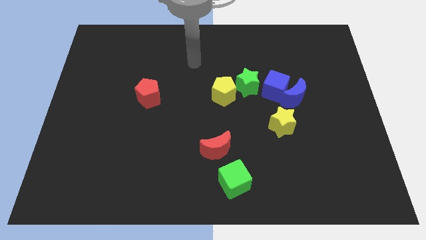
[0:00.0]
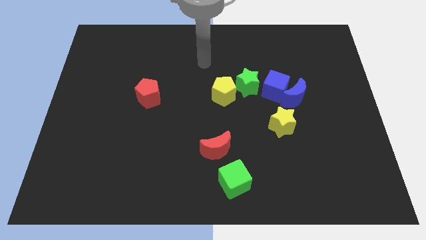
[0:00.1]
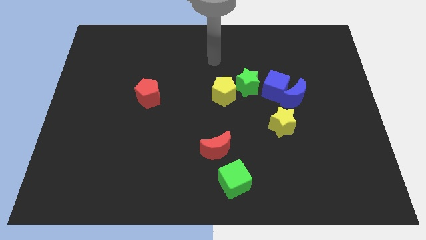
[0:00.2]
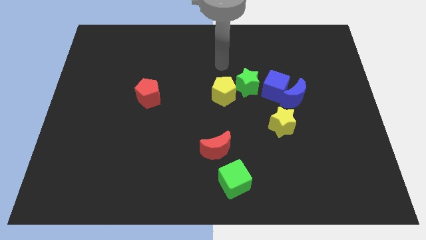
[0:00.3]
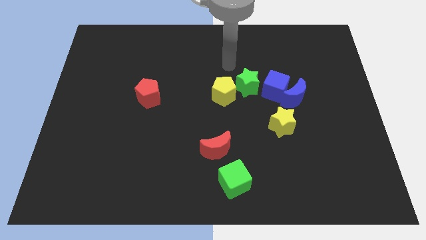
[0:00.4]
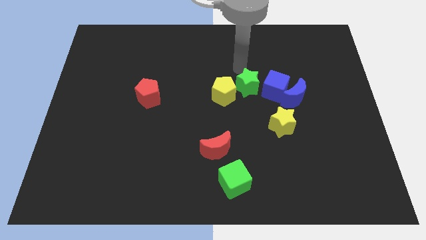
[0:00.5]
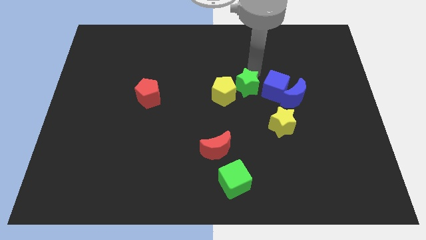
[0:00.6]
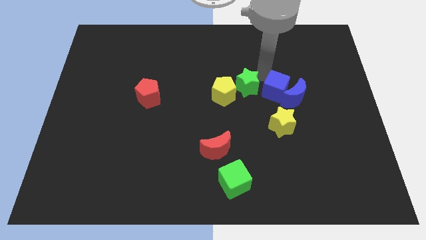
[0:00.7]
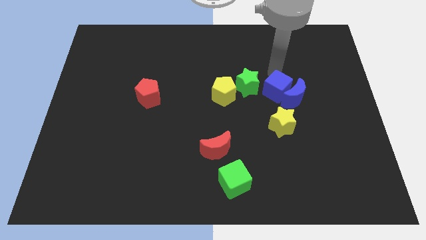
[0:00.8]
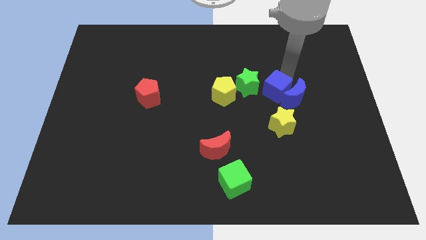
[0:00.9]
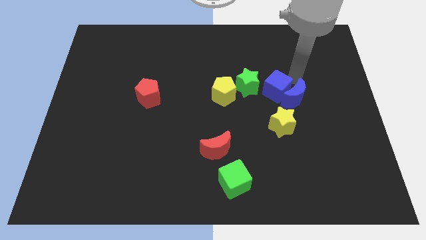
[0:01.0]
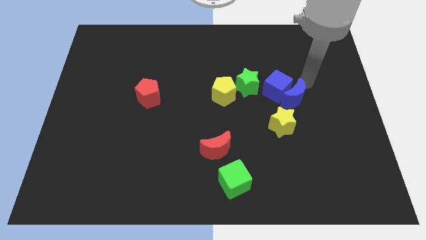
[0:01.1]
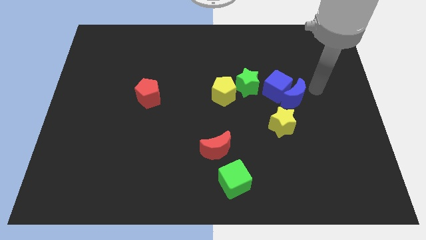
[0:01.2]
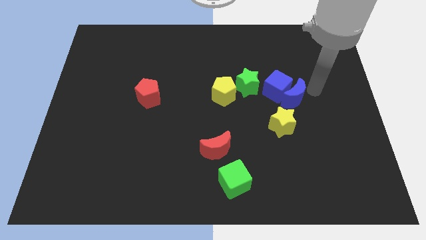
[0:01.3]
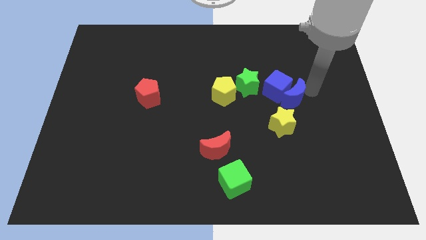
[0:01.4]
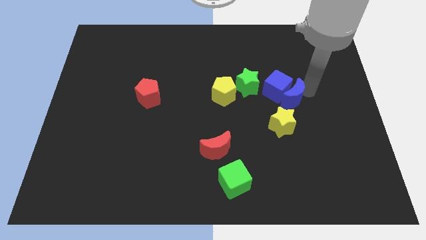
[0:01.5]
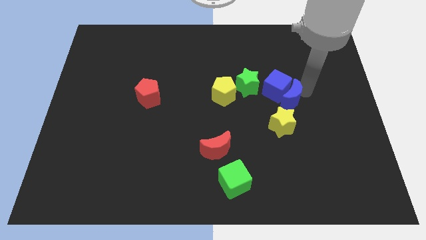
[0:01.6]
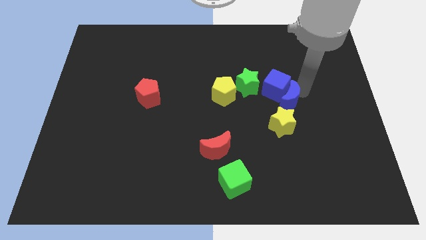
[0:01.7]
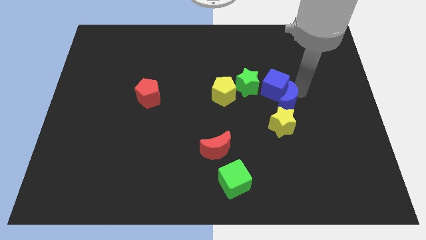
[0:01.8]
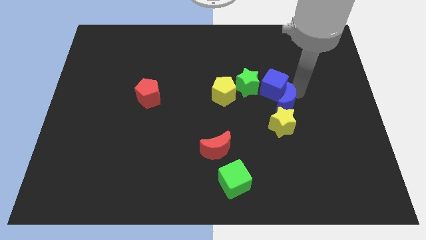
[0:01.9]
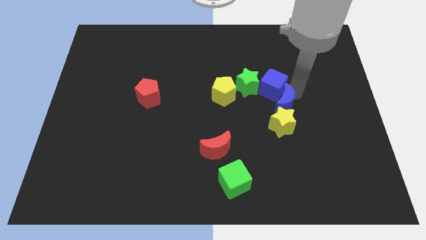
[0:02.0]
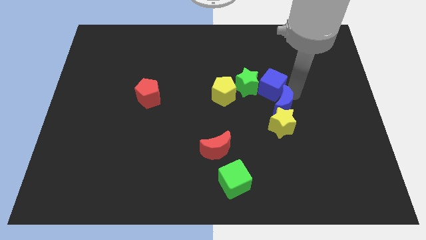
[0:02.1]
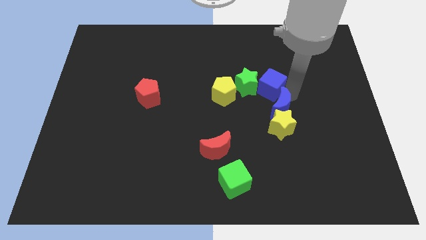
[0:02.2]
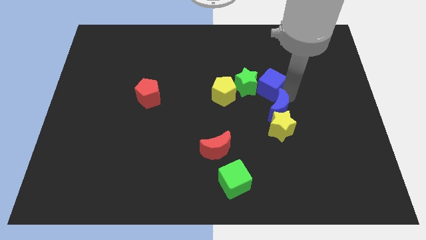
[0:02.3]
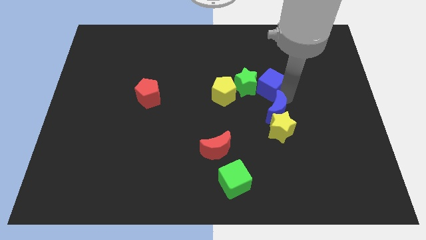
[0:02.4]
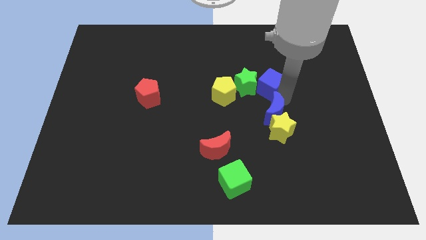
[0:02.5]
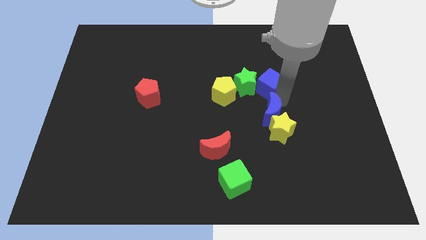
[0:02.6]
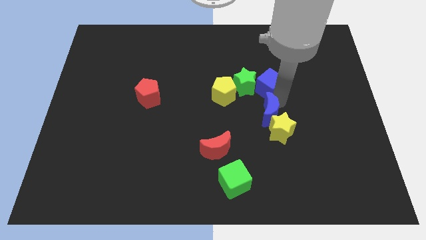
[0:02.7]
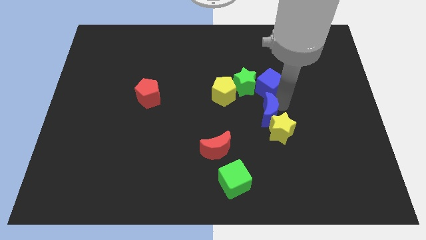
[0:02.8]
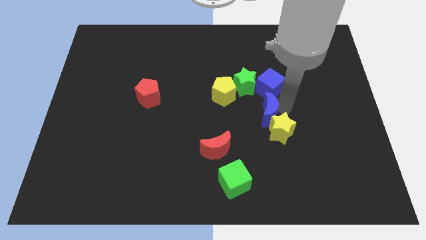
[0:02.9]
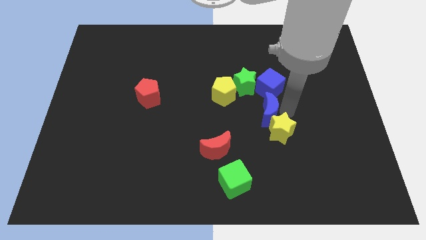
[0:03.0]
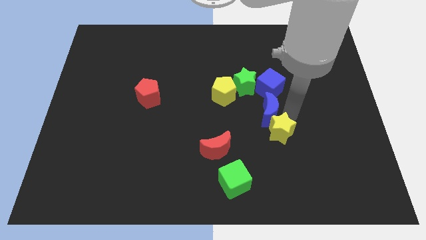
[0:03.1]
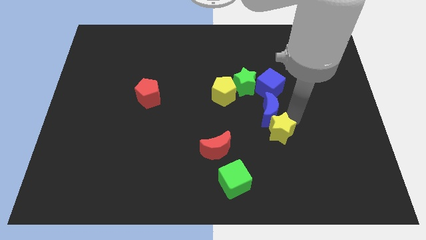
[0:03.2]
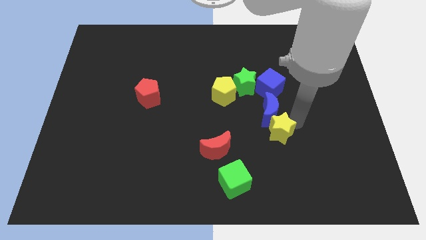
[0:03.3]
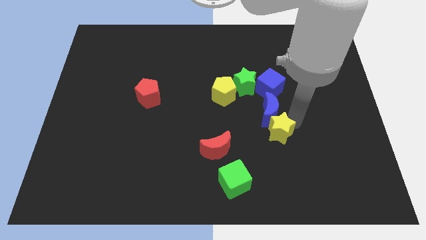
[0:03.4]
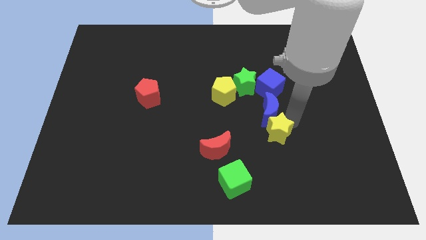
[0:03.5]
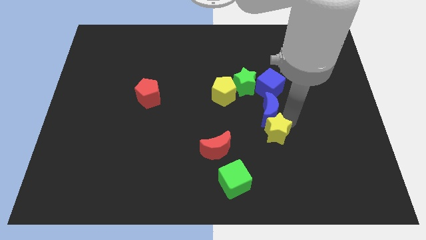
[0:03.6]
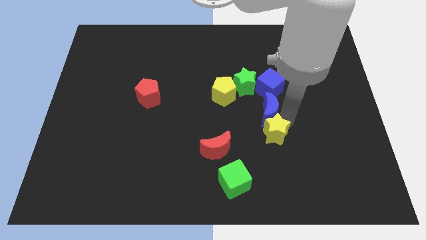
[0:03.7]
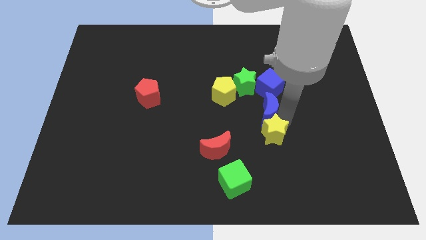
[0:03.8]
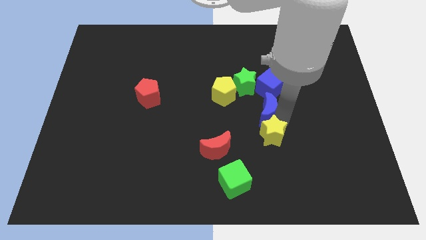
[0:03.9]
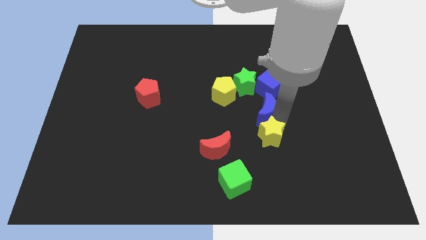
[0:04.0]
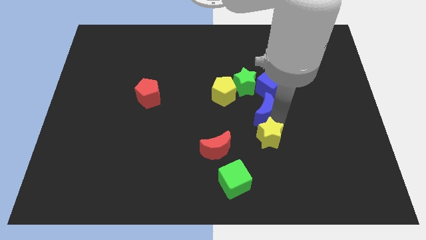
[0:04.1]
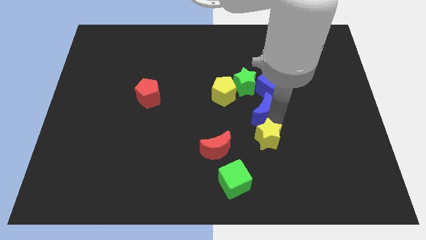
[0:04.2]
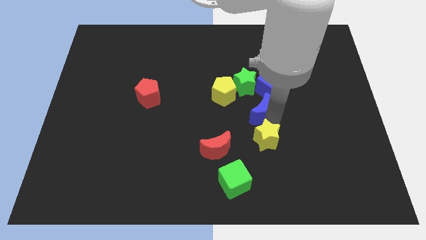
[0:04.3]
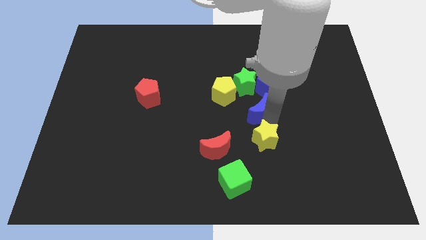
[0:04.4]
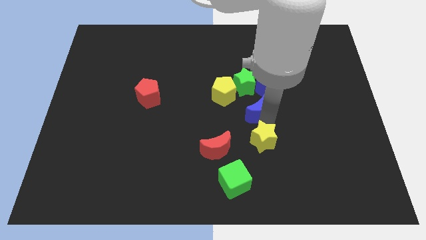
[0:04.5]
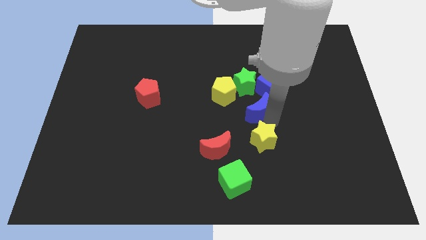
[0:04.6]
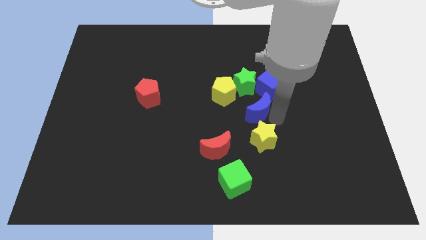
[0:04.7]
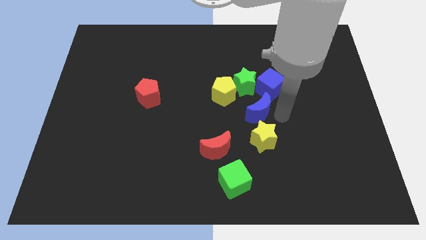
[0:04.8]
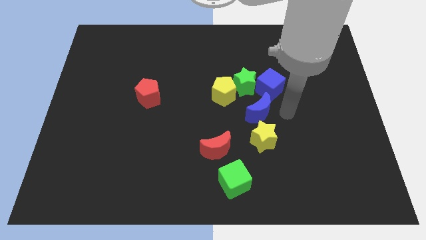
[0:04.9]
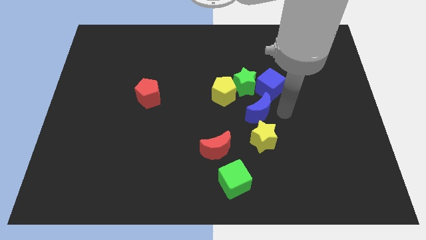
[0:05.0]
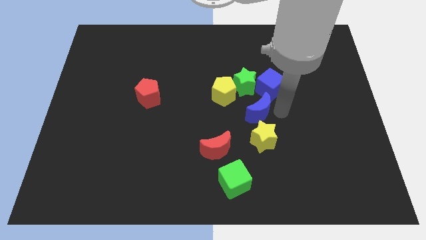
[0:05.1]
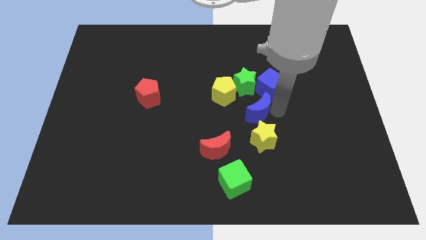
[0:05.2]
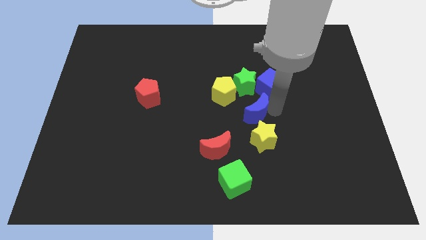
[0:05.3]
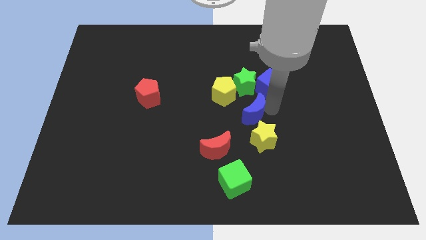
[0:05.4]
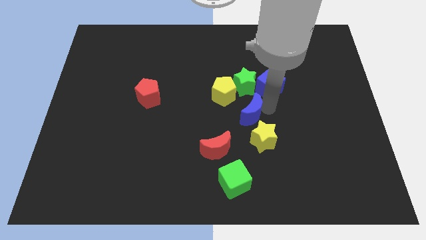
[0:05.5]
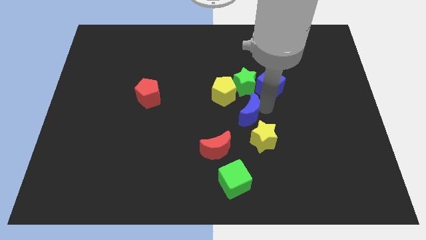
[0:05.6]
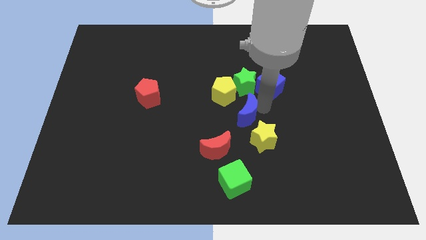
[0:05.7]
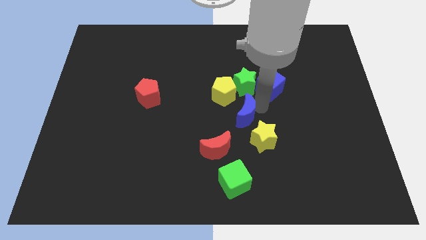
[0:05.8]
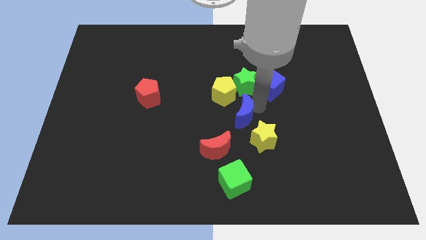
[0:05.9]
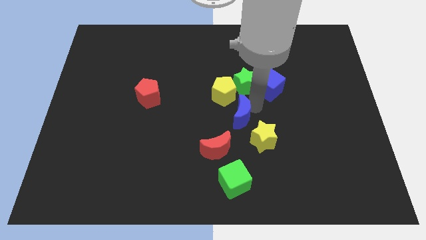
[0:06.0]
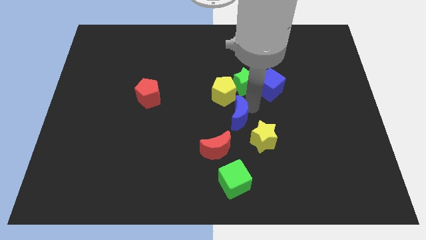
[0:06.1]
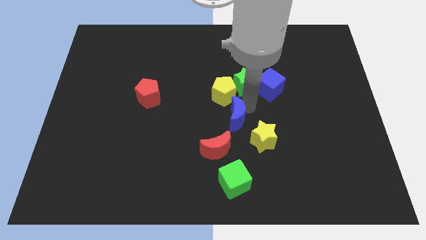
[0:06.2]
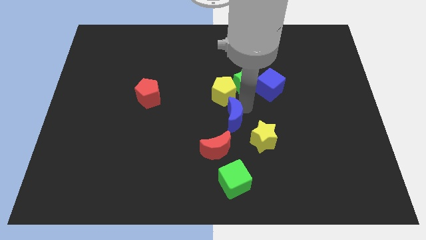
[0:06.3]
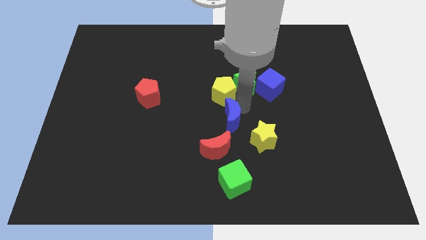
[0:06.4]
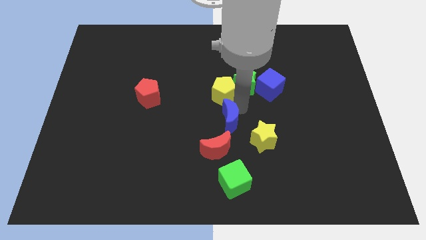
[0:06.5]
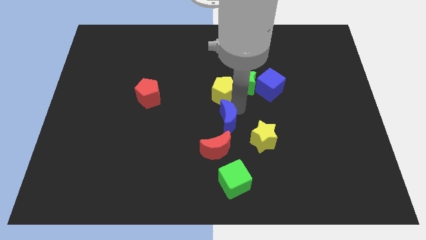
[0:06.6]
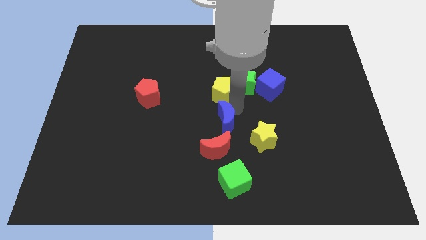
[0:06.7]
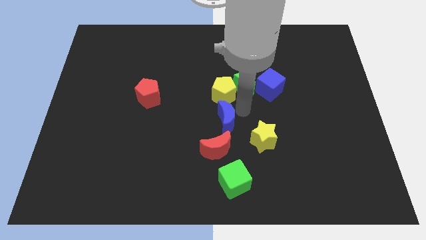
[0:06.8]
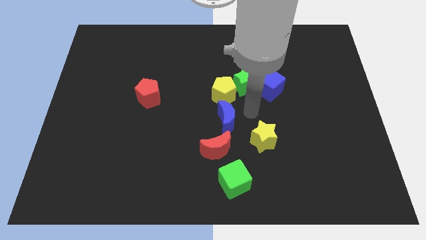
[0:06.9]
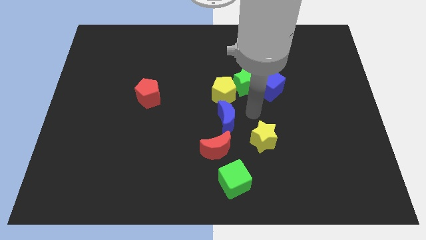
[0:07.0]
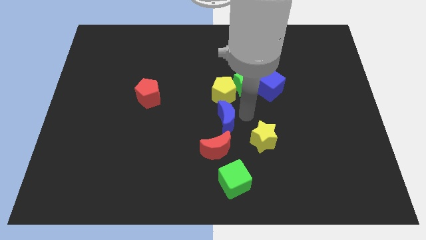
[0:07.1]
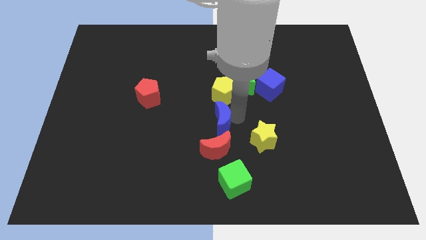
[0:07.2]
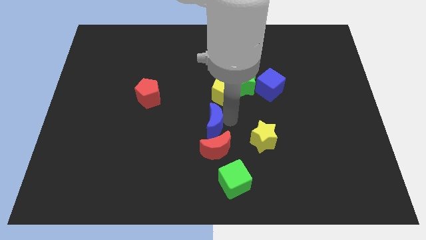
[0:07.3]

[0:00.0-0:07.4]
slide the blue moon diagonally up and to the left of the red moon
